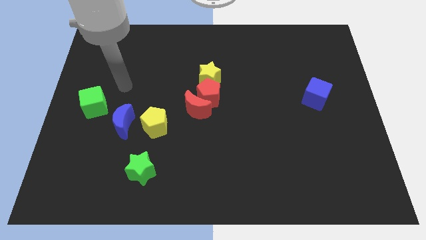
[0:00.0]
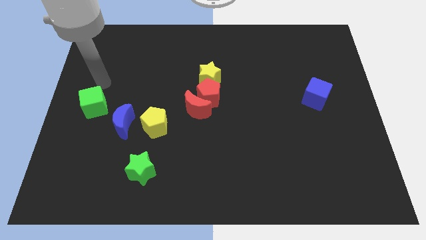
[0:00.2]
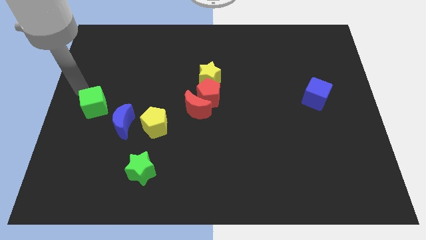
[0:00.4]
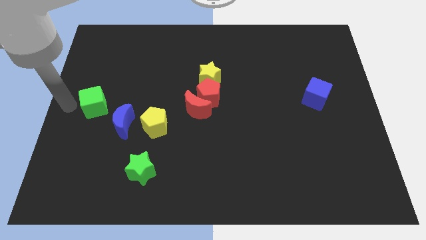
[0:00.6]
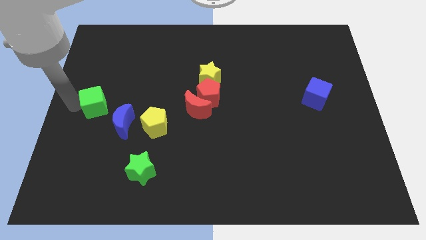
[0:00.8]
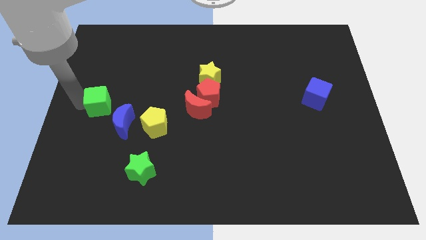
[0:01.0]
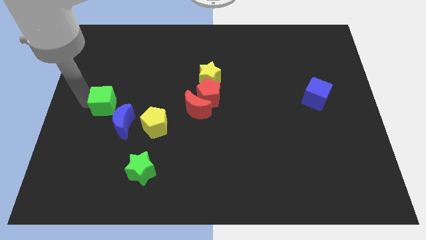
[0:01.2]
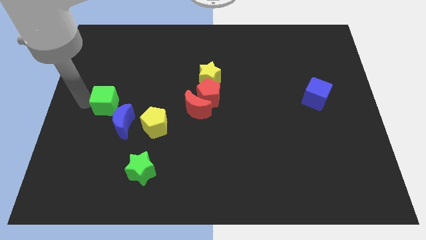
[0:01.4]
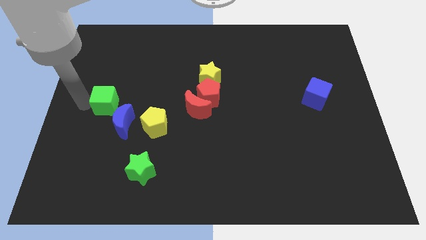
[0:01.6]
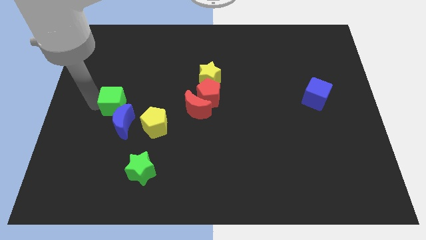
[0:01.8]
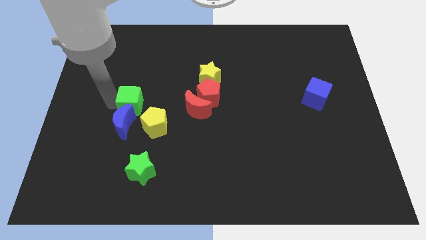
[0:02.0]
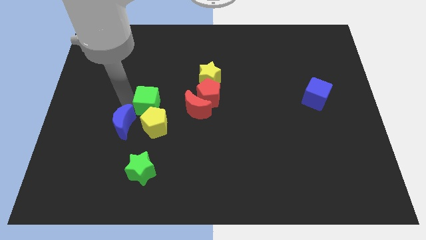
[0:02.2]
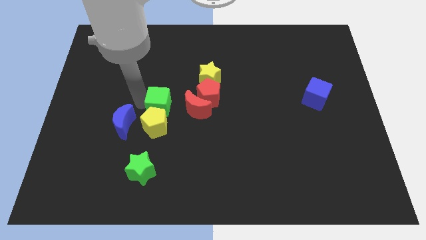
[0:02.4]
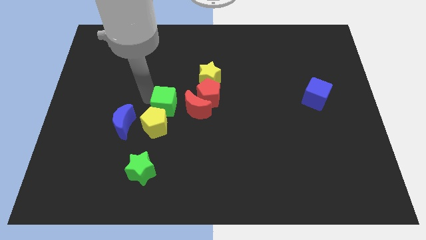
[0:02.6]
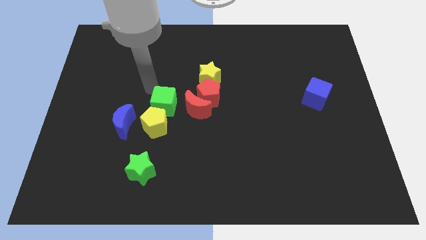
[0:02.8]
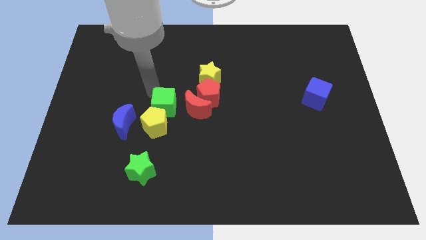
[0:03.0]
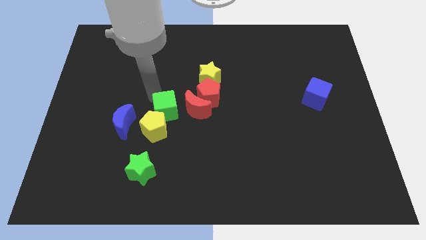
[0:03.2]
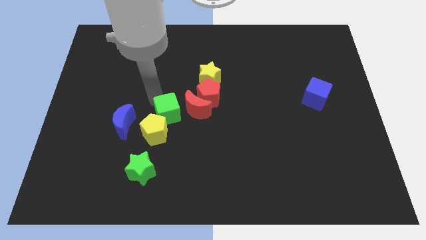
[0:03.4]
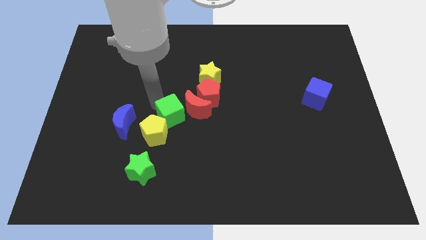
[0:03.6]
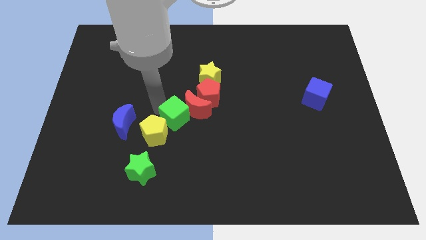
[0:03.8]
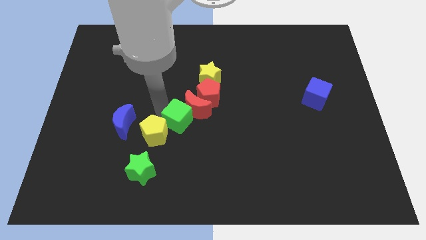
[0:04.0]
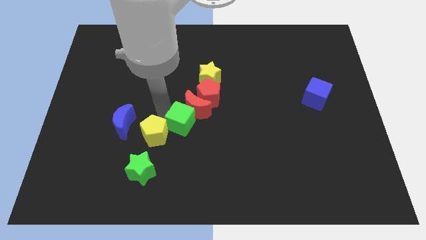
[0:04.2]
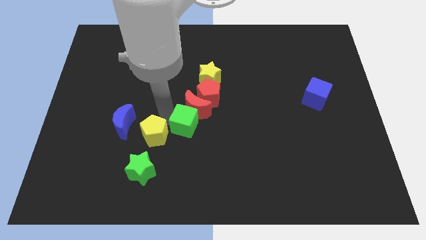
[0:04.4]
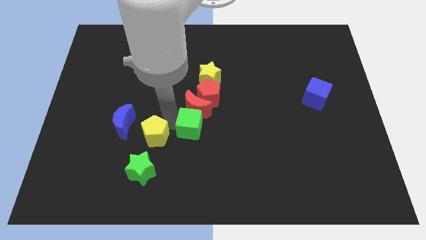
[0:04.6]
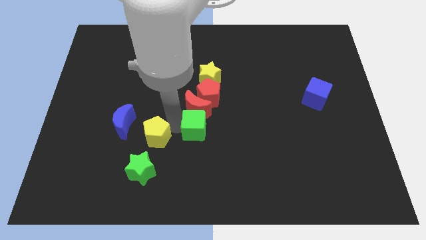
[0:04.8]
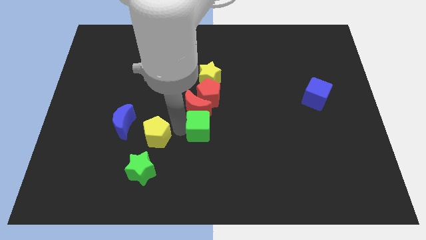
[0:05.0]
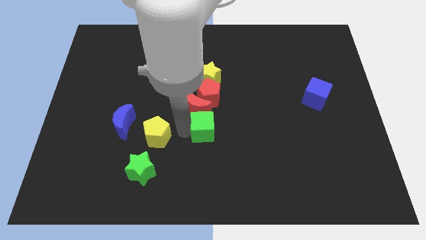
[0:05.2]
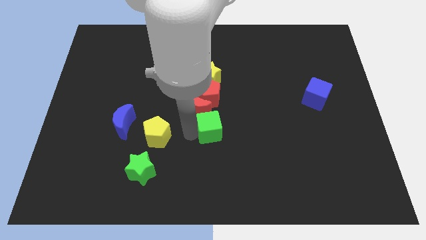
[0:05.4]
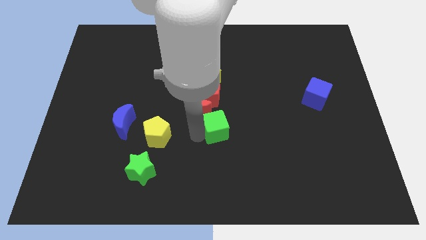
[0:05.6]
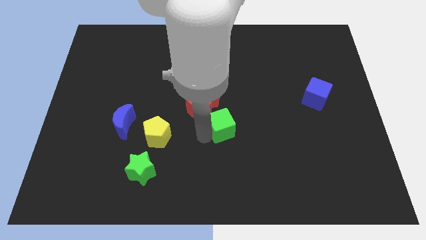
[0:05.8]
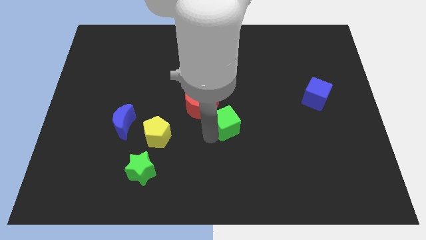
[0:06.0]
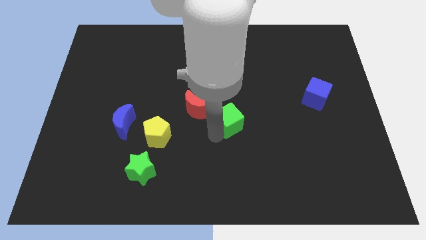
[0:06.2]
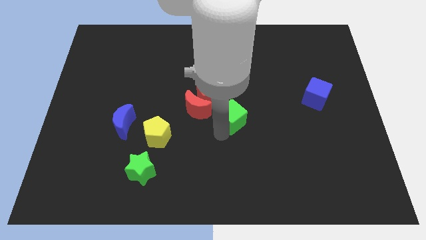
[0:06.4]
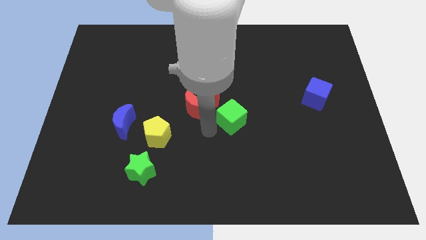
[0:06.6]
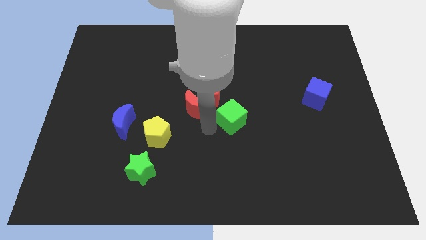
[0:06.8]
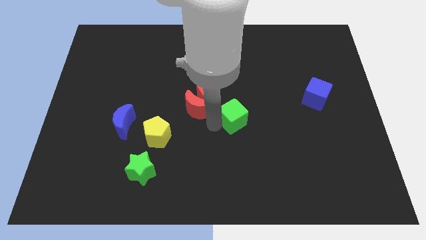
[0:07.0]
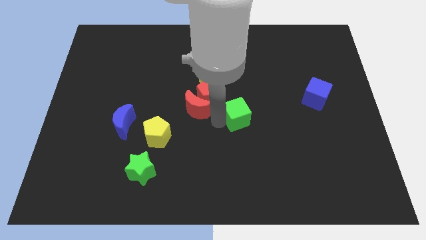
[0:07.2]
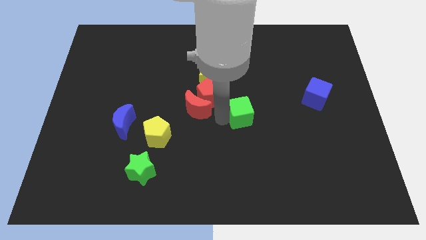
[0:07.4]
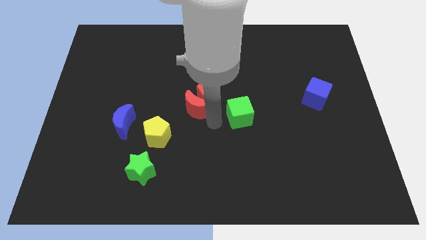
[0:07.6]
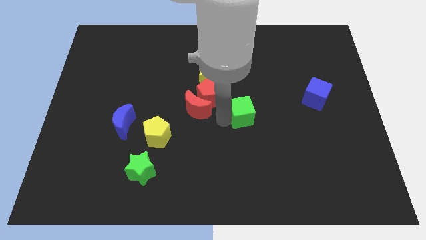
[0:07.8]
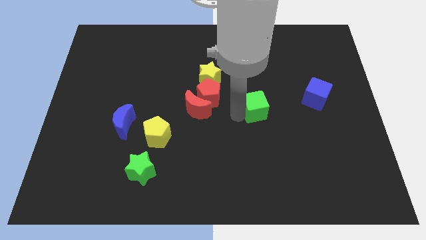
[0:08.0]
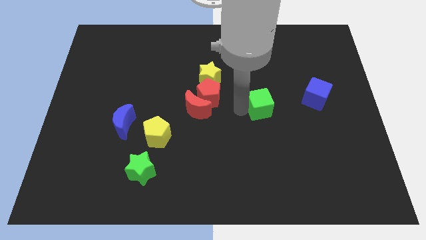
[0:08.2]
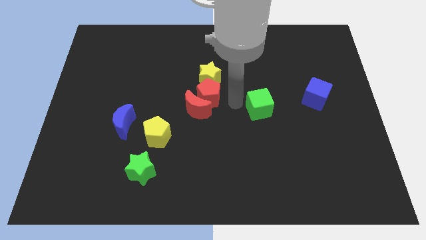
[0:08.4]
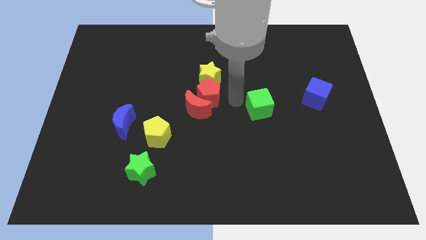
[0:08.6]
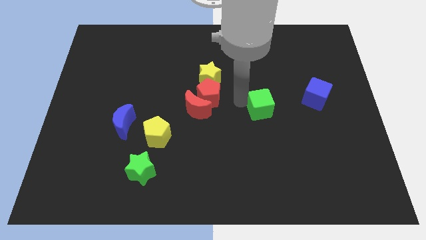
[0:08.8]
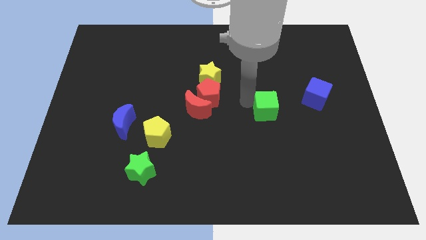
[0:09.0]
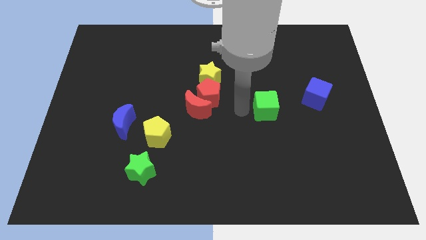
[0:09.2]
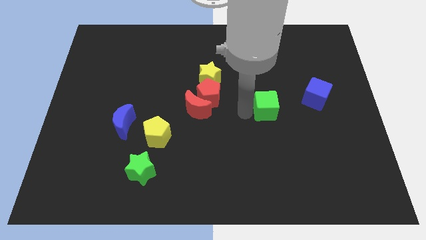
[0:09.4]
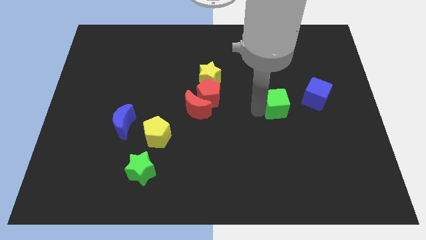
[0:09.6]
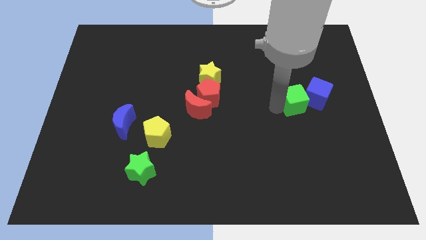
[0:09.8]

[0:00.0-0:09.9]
push the green cube next to the blue cube

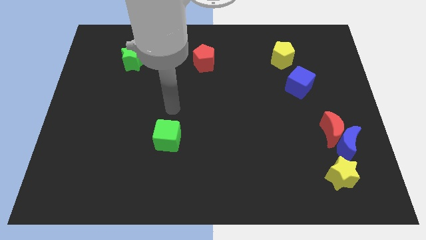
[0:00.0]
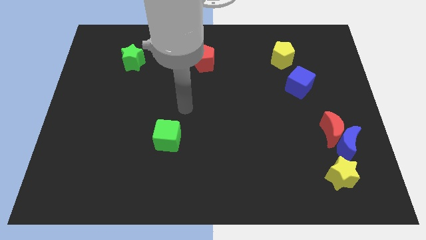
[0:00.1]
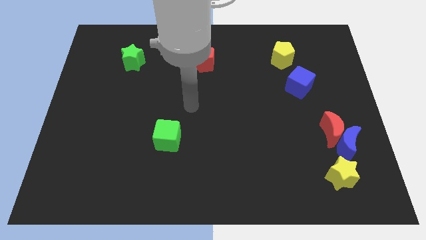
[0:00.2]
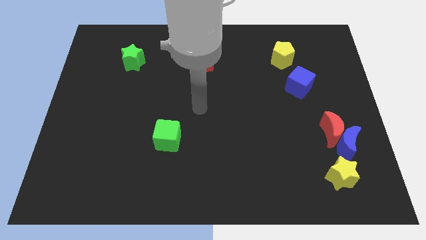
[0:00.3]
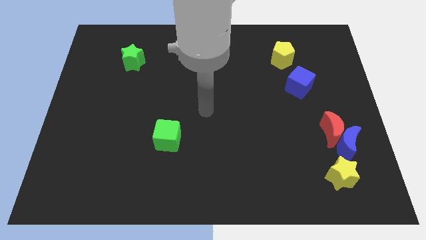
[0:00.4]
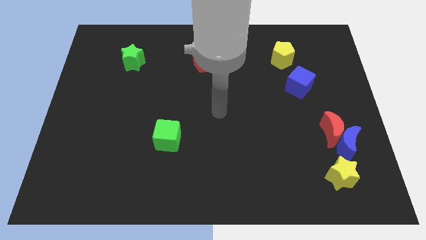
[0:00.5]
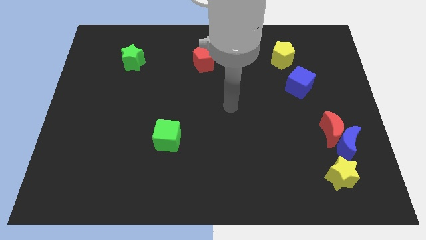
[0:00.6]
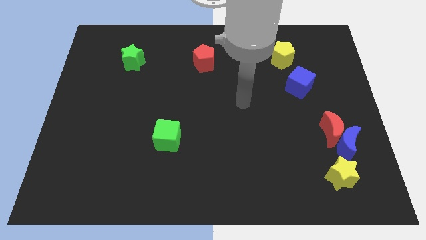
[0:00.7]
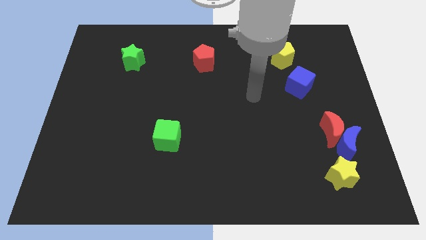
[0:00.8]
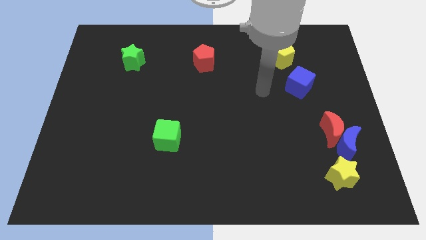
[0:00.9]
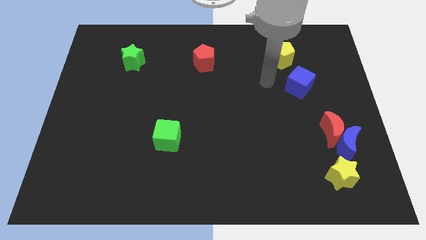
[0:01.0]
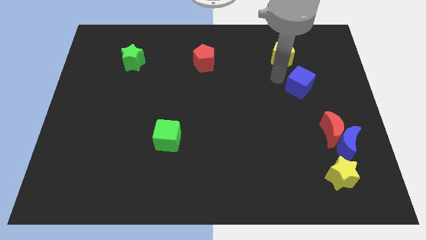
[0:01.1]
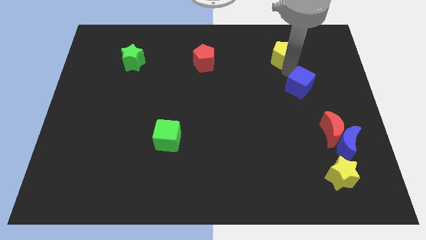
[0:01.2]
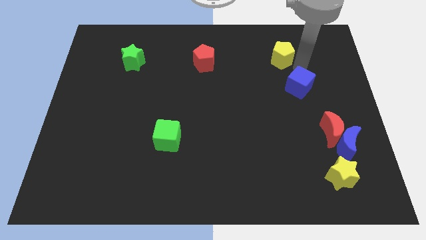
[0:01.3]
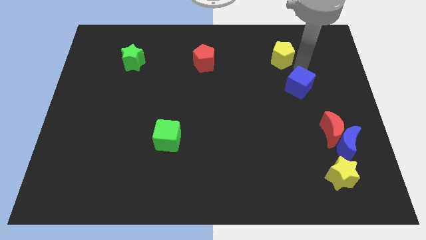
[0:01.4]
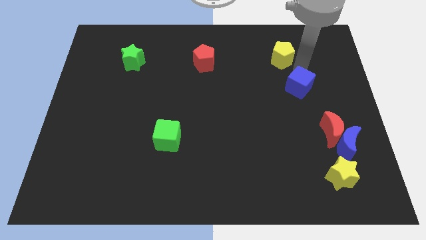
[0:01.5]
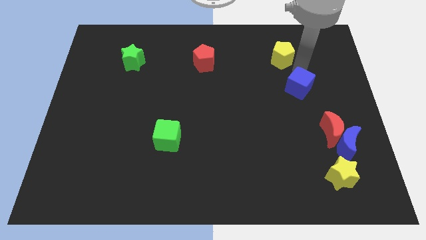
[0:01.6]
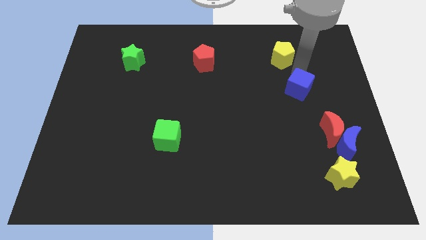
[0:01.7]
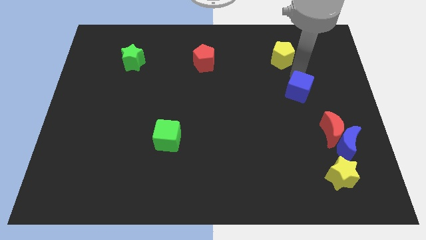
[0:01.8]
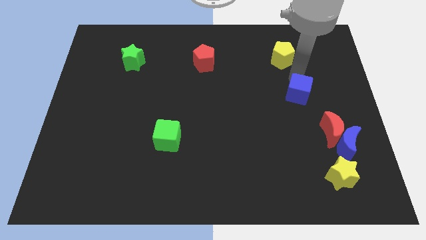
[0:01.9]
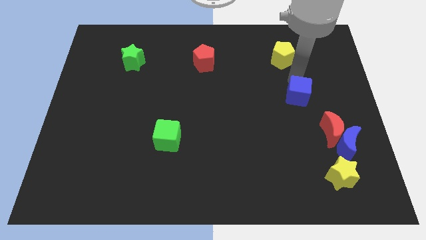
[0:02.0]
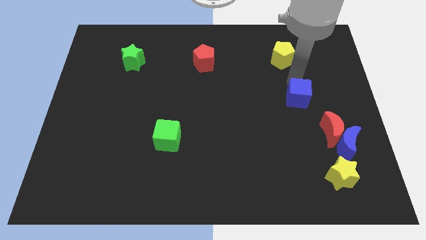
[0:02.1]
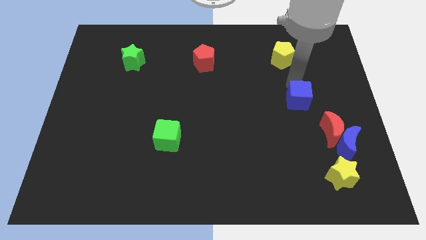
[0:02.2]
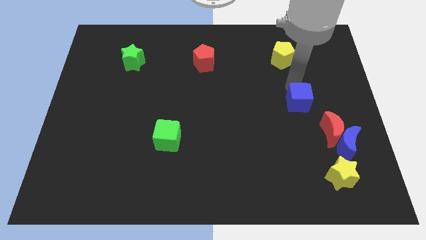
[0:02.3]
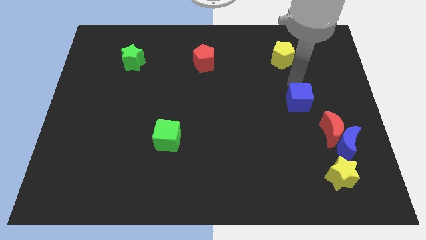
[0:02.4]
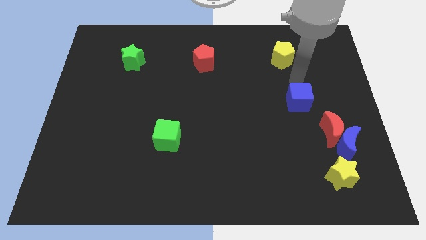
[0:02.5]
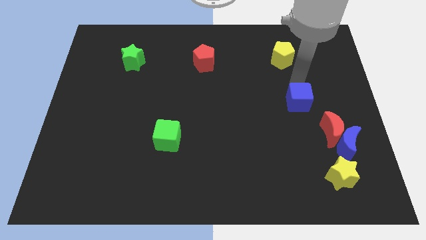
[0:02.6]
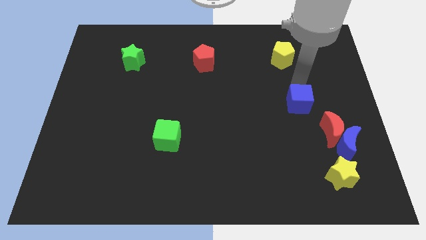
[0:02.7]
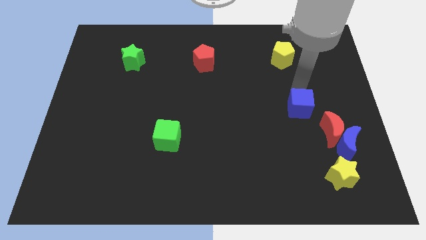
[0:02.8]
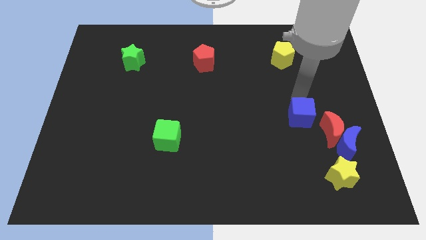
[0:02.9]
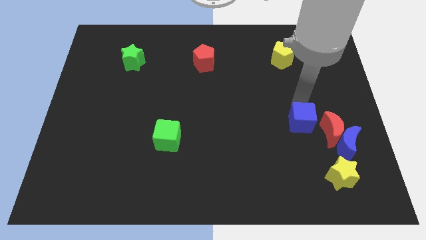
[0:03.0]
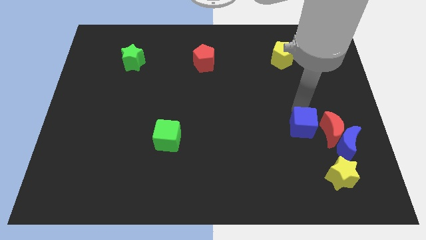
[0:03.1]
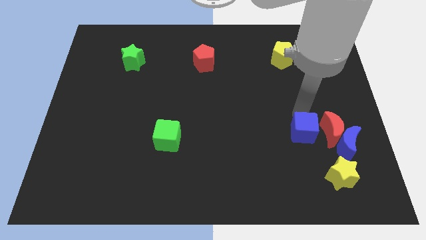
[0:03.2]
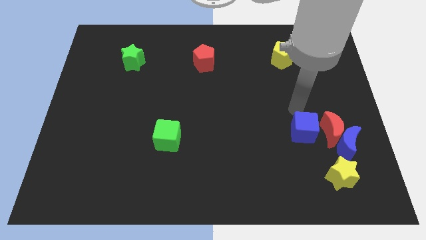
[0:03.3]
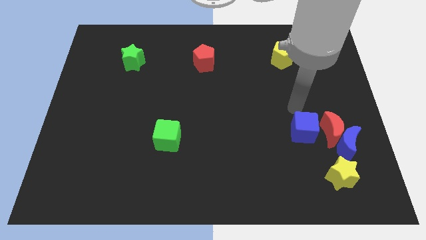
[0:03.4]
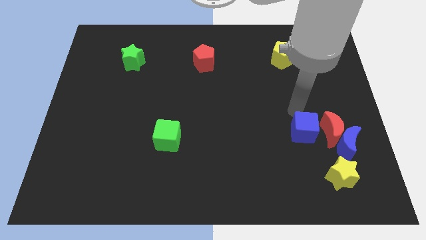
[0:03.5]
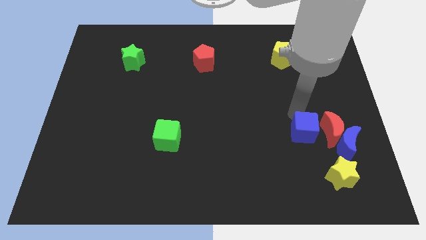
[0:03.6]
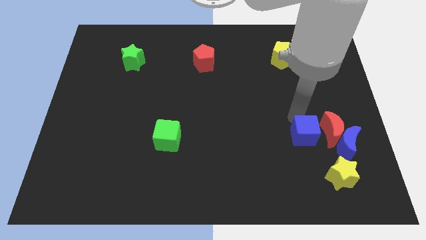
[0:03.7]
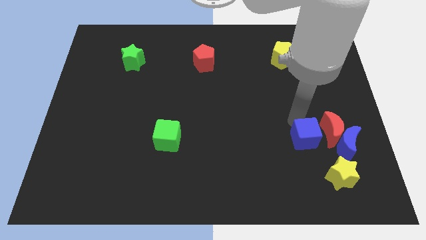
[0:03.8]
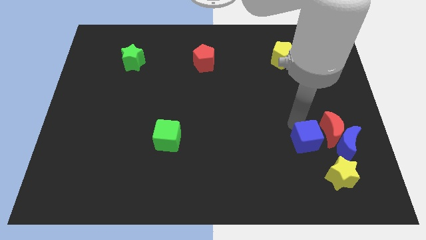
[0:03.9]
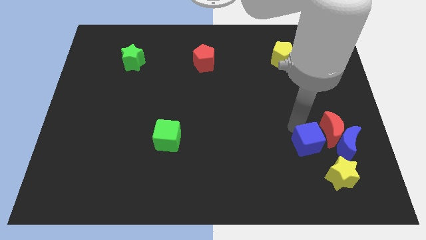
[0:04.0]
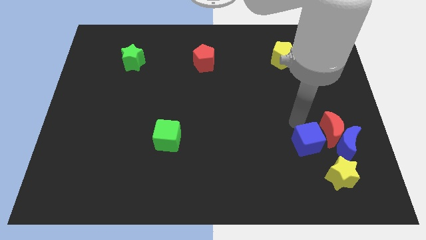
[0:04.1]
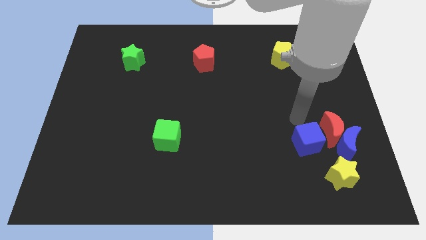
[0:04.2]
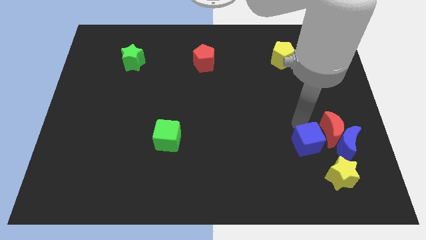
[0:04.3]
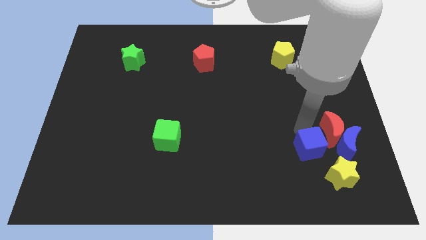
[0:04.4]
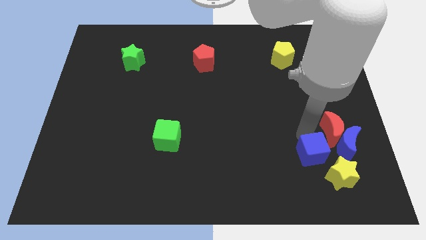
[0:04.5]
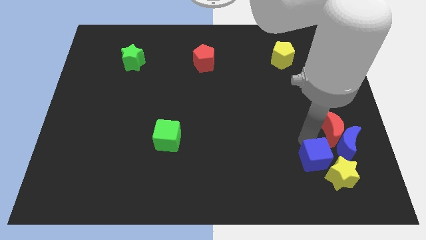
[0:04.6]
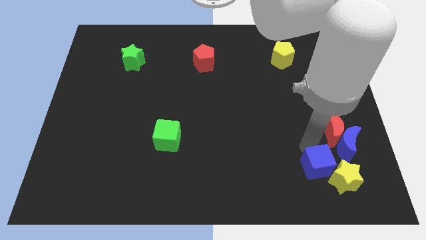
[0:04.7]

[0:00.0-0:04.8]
put the blue cube towards the yellow star
